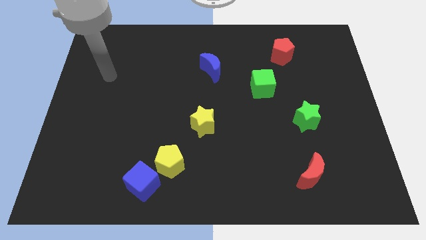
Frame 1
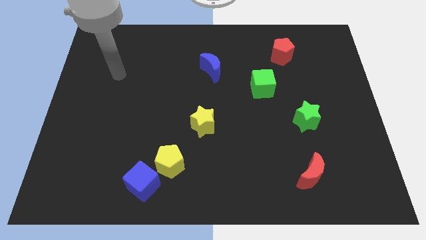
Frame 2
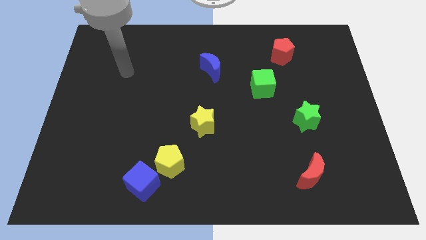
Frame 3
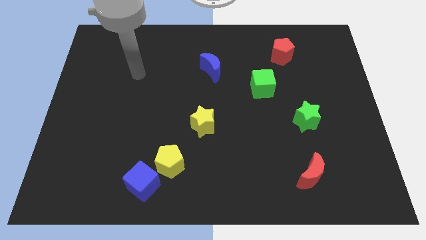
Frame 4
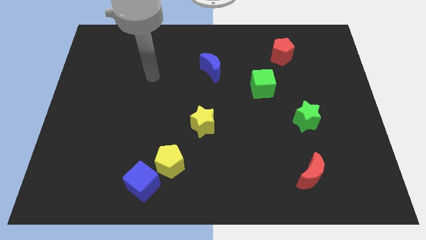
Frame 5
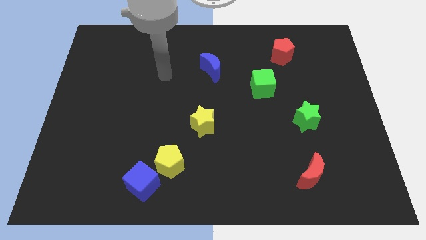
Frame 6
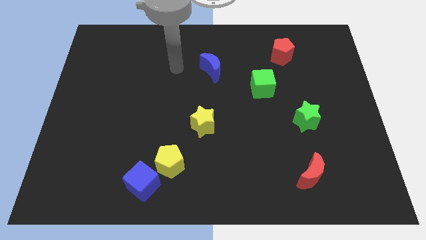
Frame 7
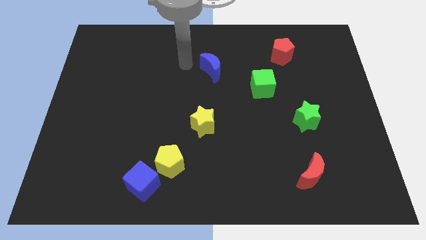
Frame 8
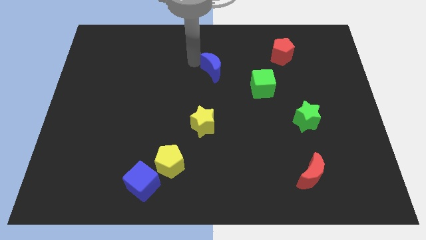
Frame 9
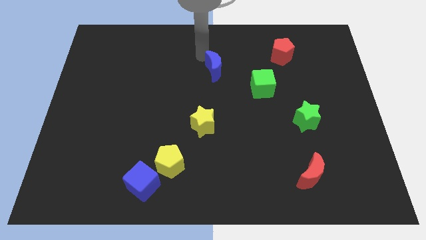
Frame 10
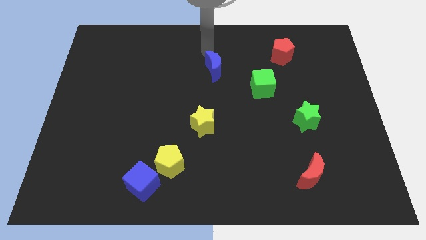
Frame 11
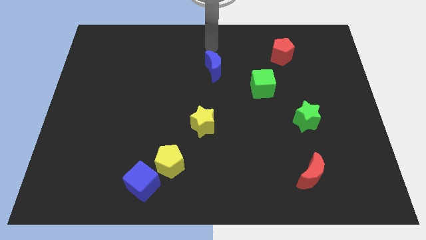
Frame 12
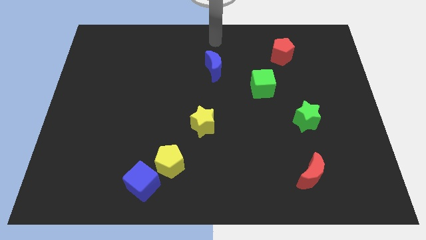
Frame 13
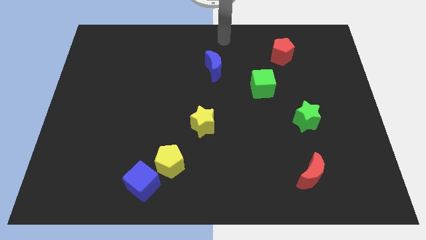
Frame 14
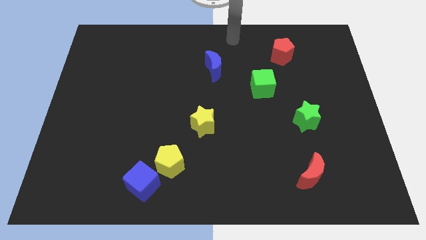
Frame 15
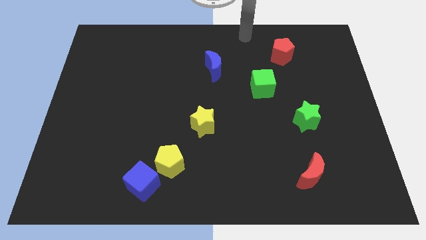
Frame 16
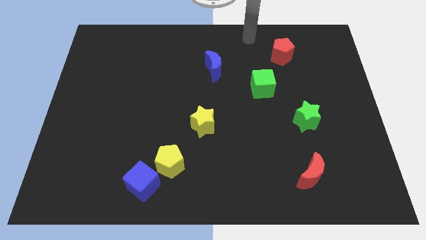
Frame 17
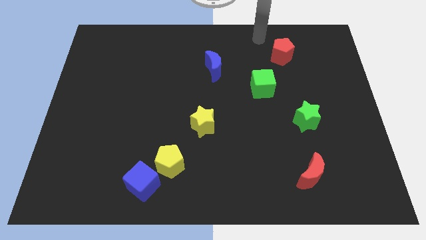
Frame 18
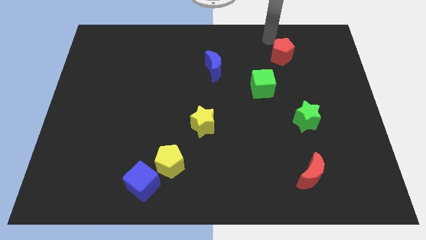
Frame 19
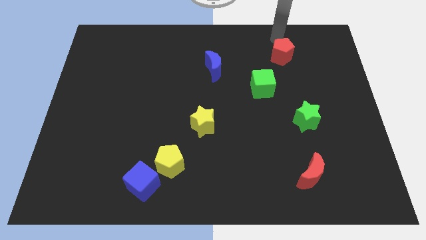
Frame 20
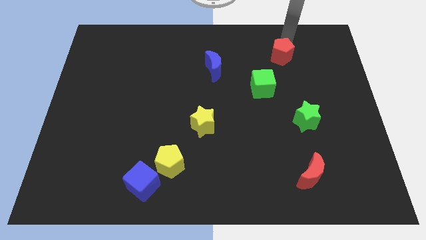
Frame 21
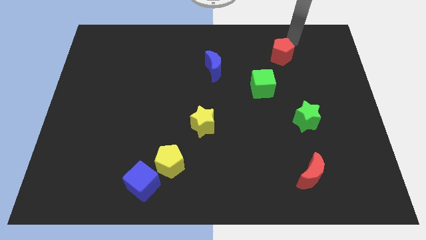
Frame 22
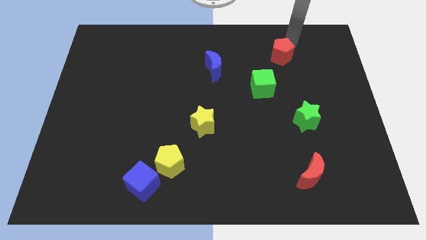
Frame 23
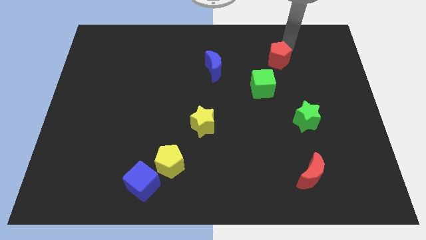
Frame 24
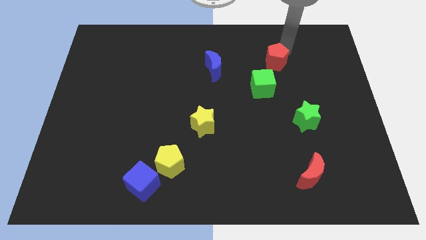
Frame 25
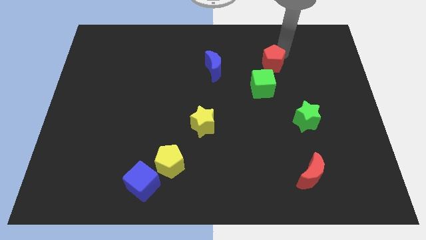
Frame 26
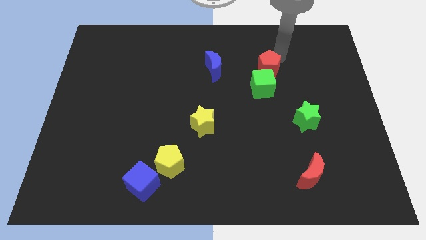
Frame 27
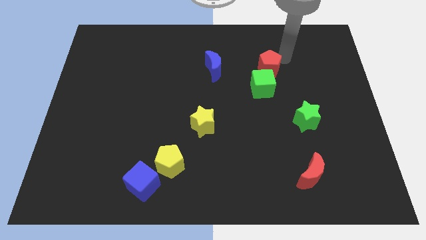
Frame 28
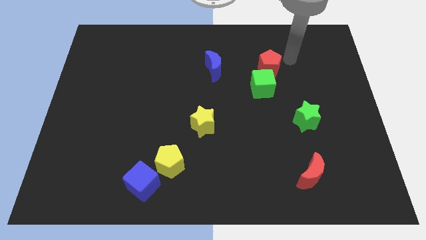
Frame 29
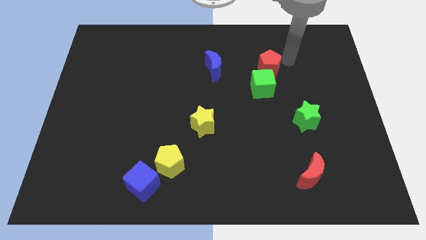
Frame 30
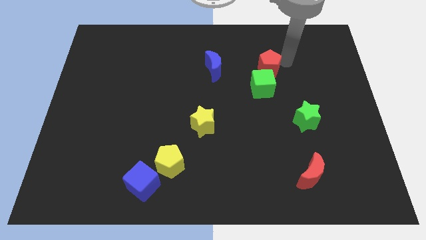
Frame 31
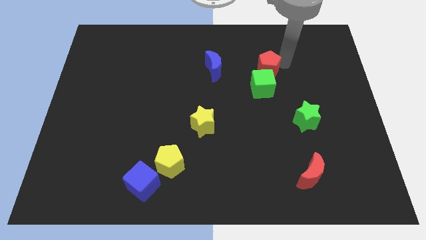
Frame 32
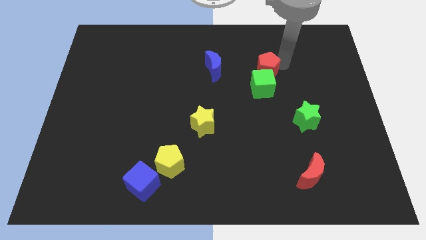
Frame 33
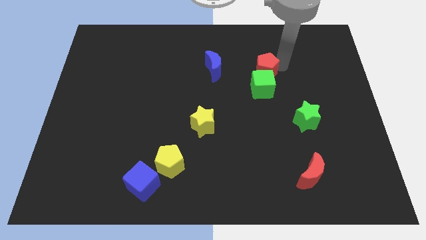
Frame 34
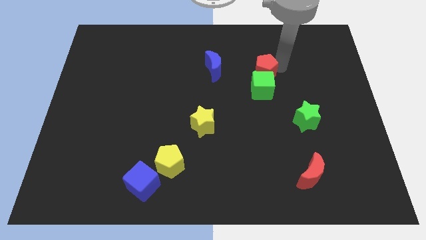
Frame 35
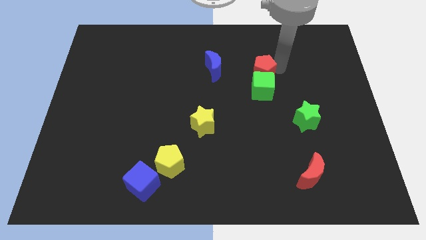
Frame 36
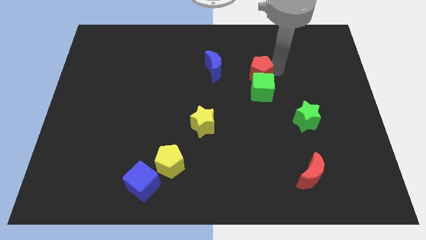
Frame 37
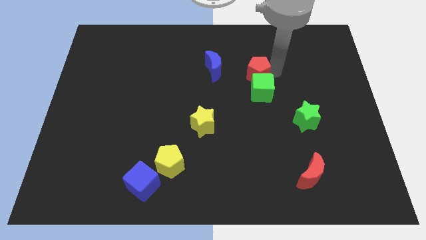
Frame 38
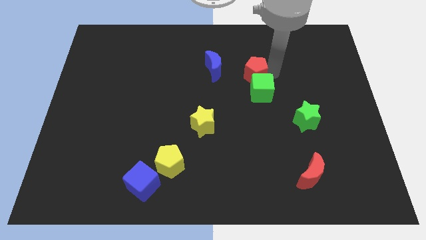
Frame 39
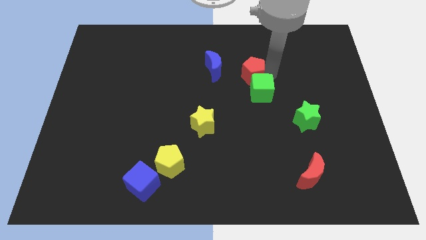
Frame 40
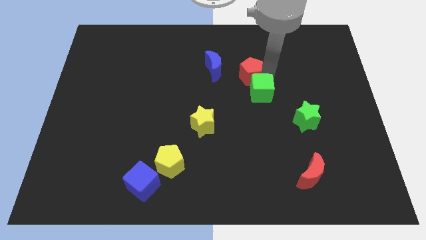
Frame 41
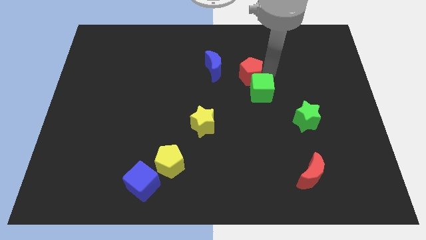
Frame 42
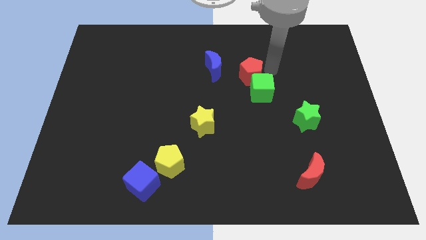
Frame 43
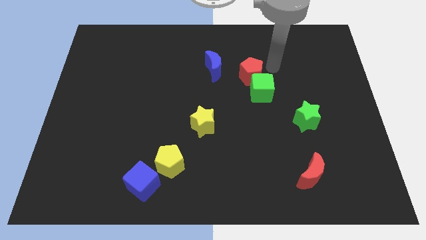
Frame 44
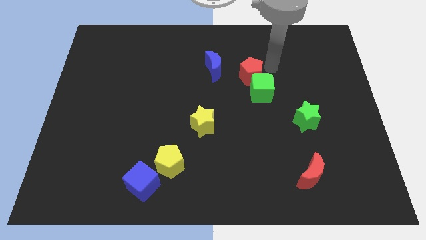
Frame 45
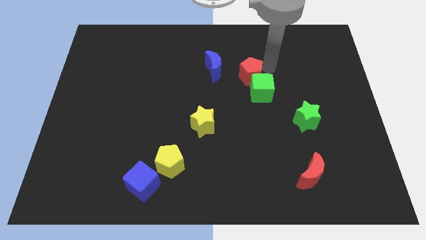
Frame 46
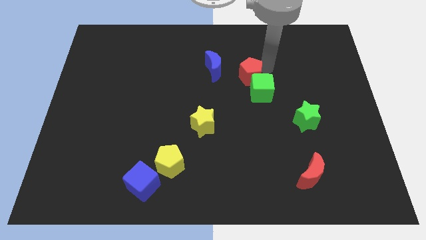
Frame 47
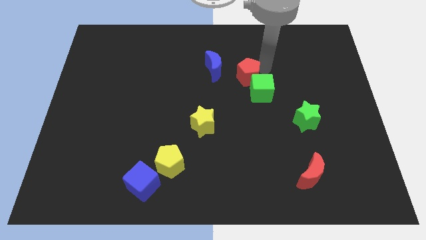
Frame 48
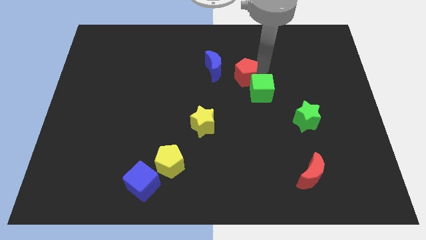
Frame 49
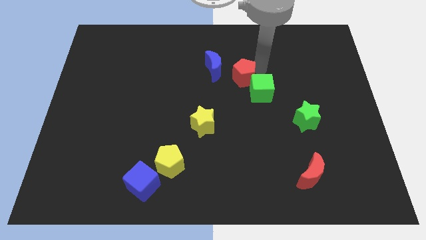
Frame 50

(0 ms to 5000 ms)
move the red pentagon to the left of the green cube

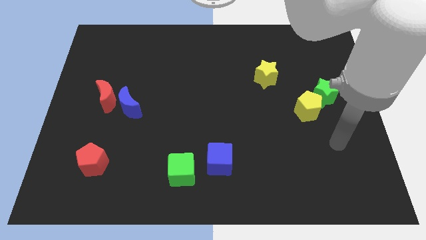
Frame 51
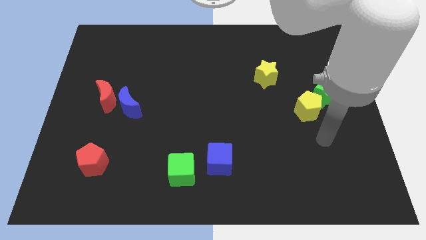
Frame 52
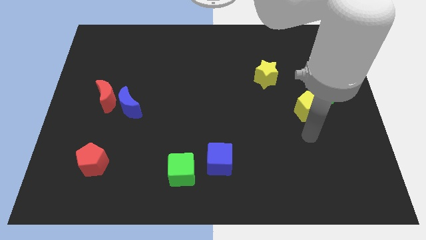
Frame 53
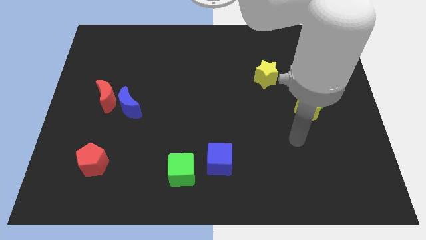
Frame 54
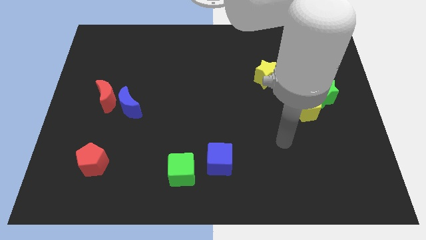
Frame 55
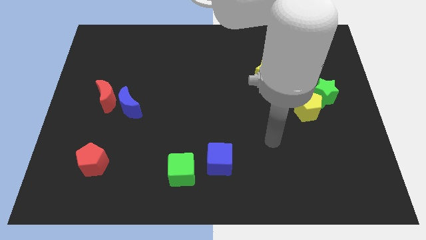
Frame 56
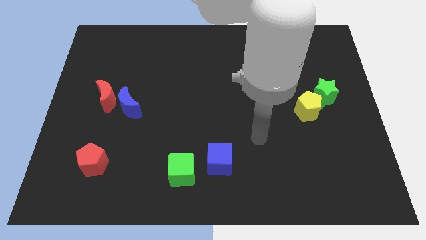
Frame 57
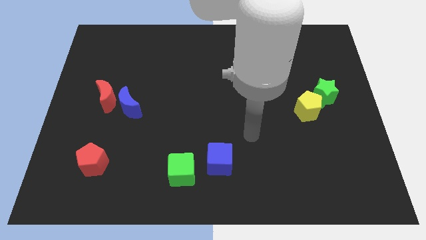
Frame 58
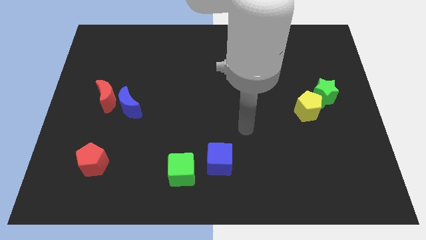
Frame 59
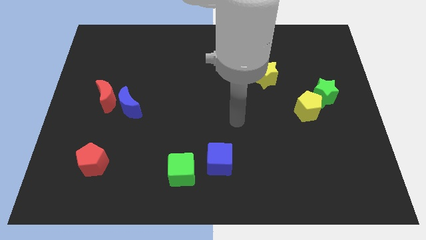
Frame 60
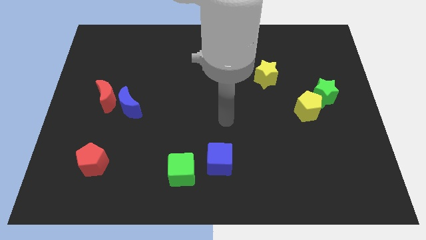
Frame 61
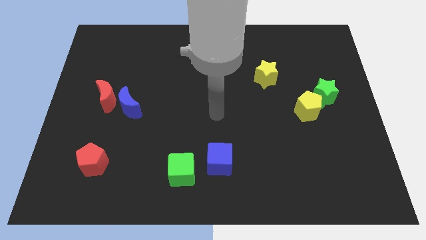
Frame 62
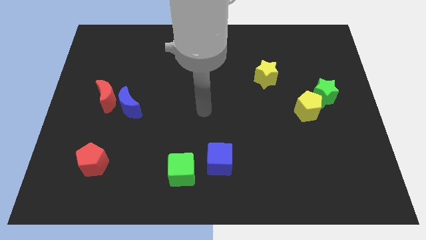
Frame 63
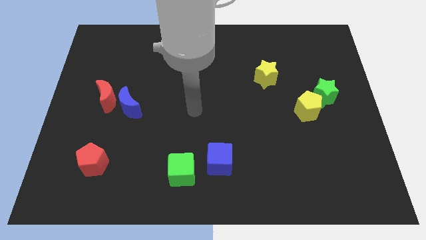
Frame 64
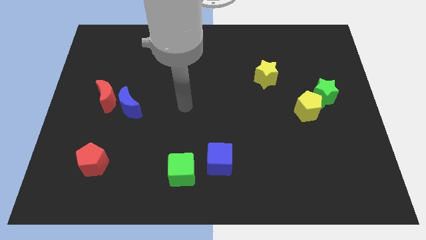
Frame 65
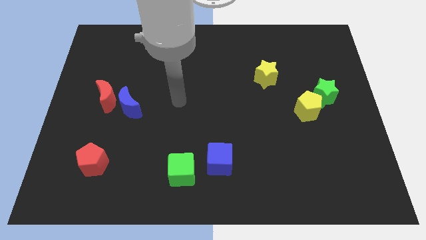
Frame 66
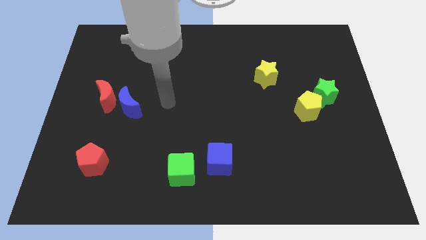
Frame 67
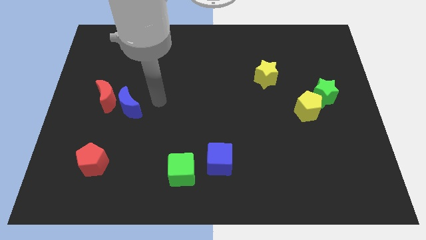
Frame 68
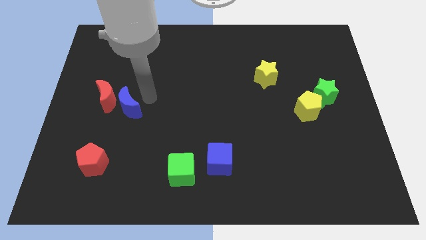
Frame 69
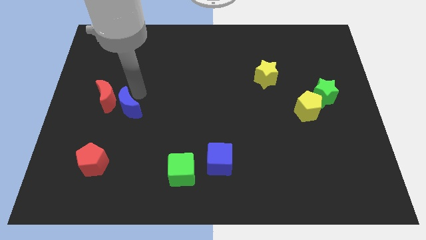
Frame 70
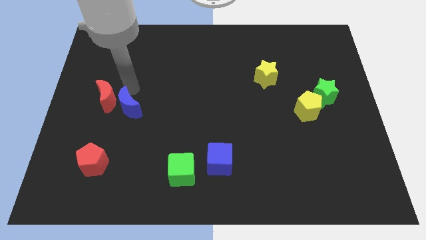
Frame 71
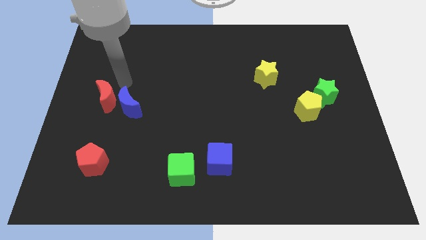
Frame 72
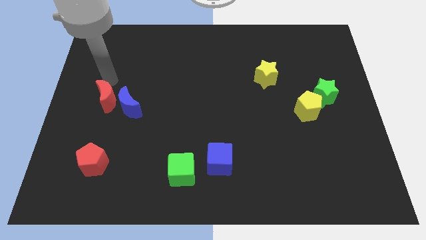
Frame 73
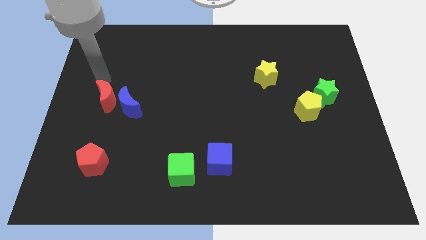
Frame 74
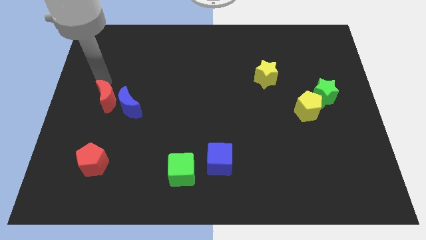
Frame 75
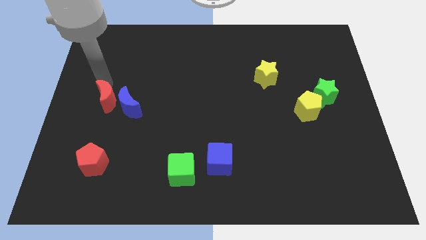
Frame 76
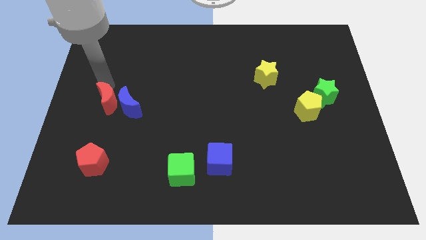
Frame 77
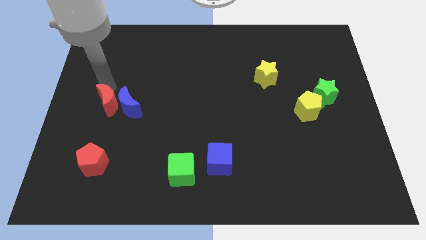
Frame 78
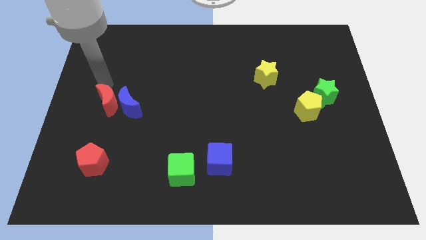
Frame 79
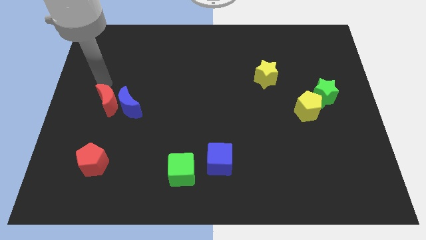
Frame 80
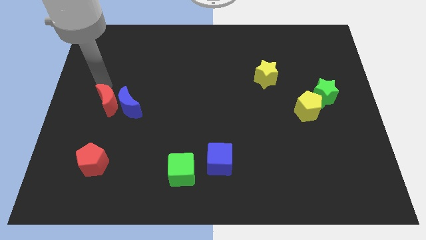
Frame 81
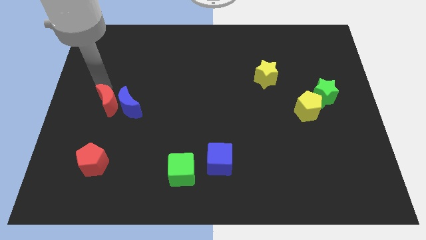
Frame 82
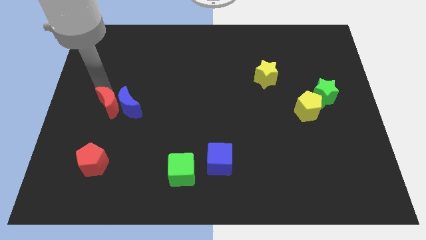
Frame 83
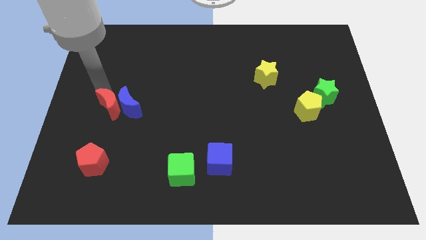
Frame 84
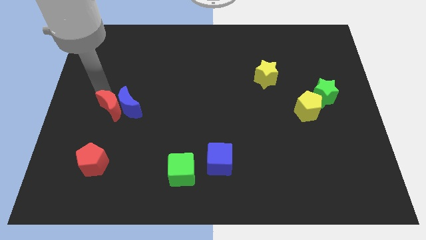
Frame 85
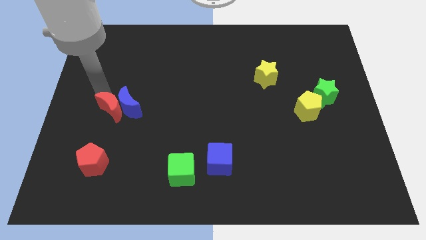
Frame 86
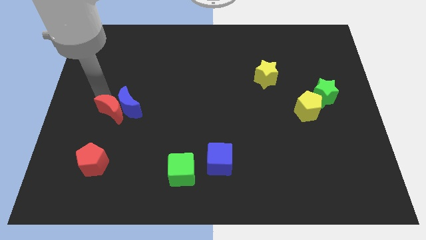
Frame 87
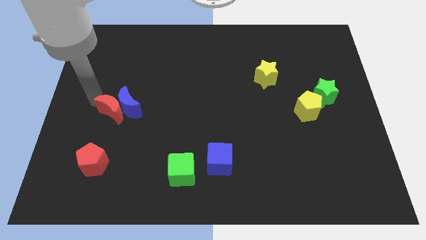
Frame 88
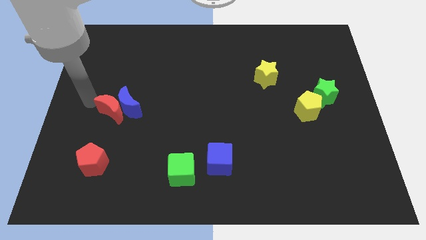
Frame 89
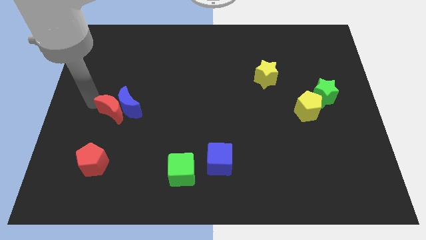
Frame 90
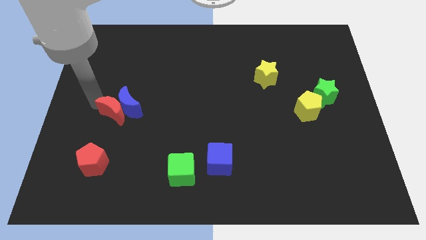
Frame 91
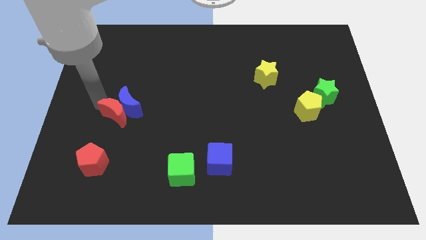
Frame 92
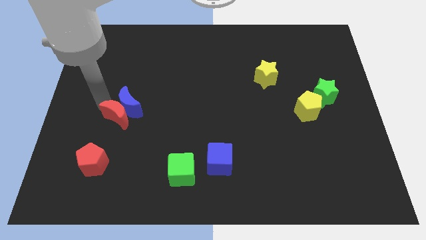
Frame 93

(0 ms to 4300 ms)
push the red moon to the bottom right side of the blue moon
